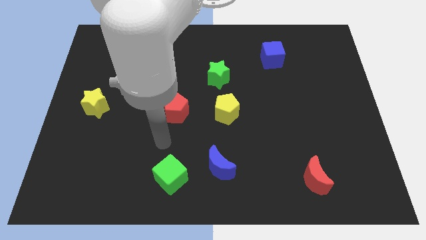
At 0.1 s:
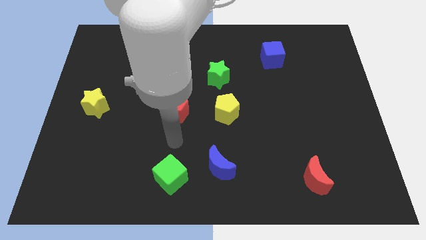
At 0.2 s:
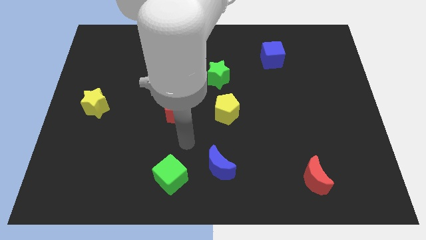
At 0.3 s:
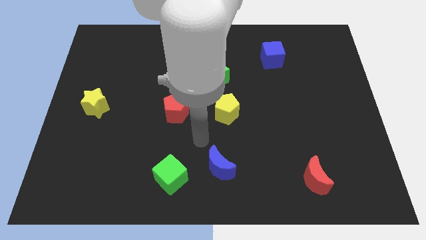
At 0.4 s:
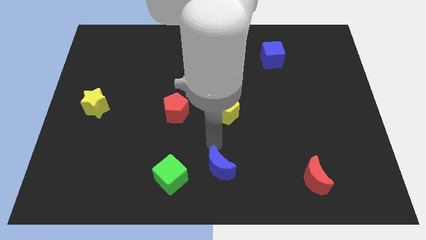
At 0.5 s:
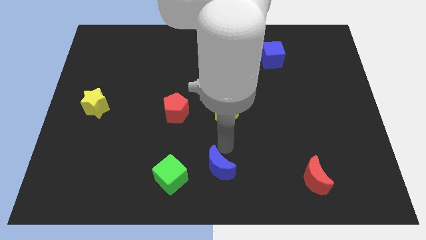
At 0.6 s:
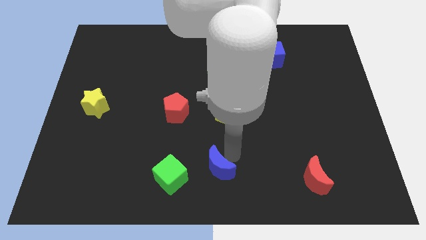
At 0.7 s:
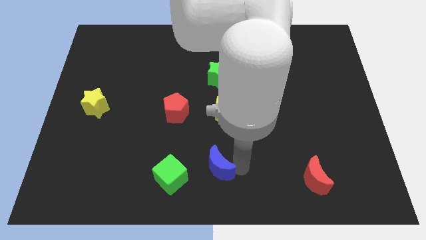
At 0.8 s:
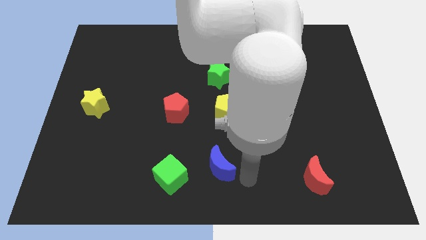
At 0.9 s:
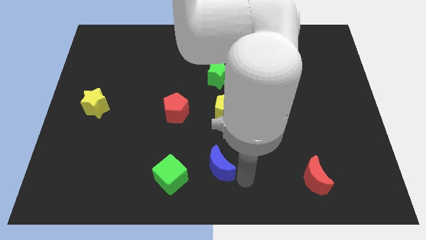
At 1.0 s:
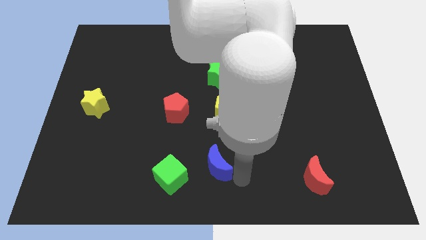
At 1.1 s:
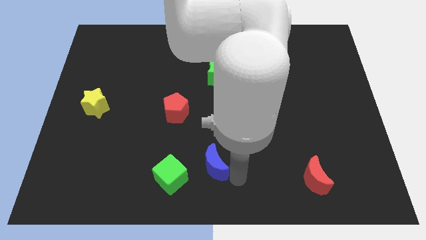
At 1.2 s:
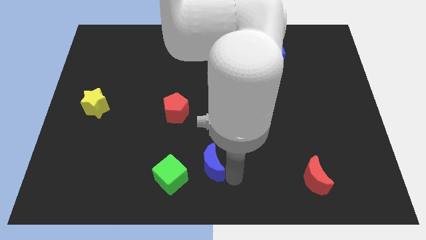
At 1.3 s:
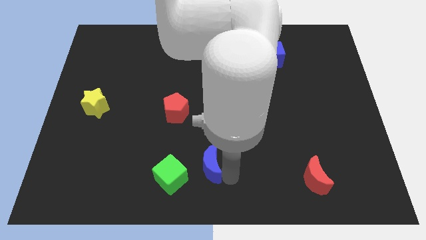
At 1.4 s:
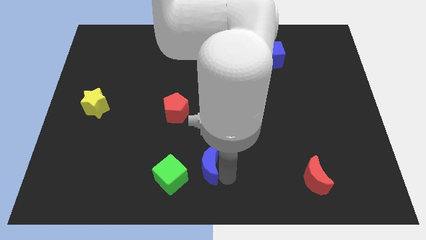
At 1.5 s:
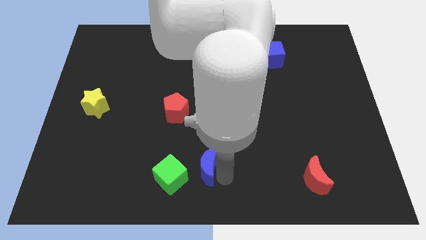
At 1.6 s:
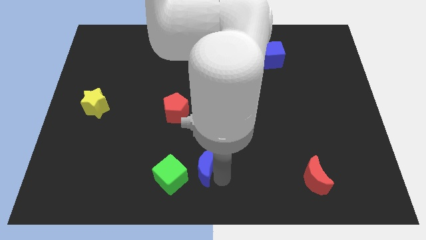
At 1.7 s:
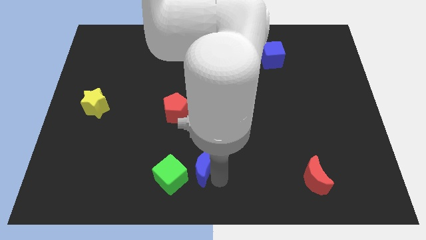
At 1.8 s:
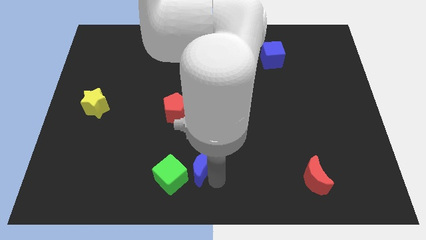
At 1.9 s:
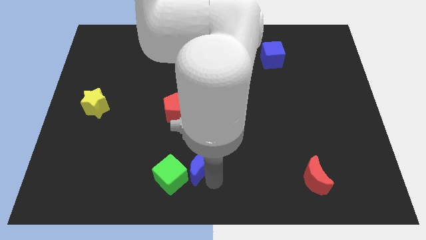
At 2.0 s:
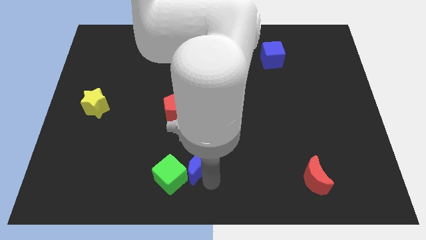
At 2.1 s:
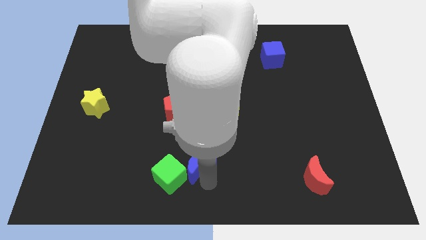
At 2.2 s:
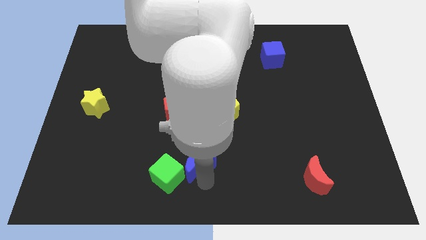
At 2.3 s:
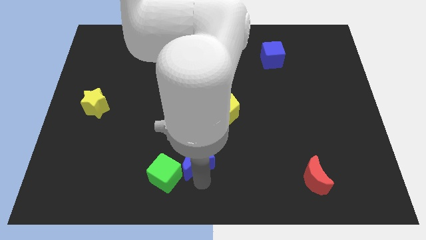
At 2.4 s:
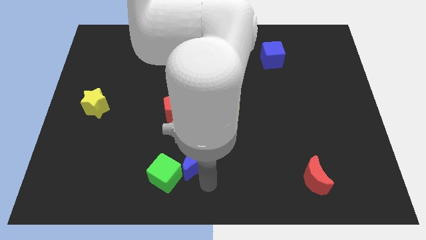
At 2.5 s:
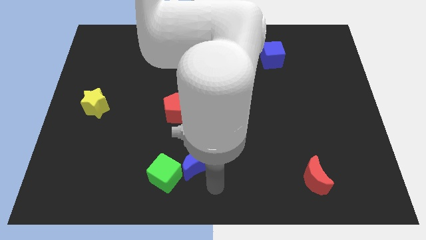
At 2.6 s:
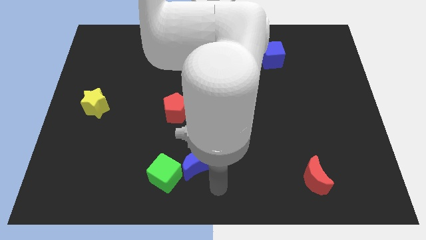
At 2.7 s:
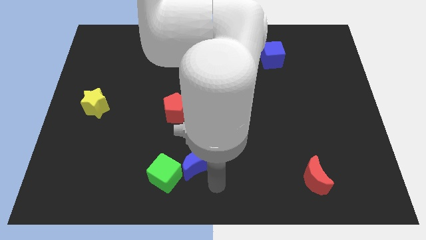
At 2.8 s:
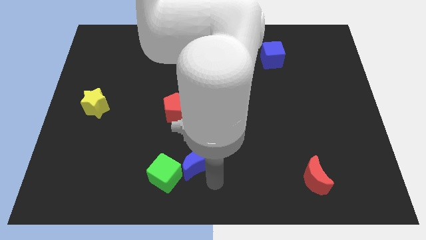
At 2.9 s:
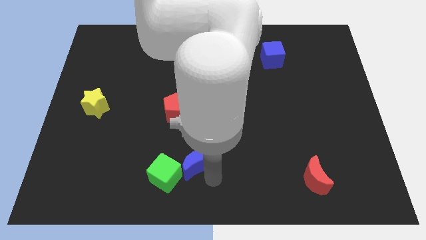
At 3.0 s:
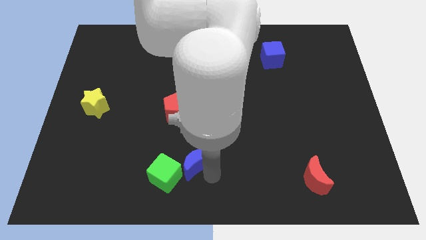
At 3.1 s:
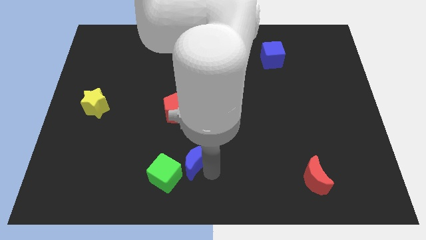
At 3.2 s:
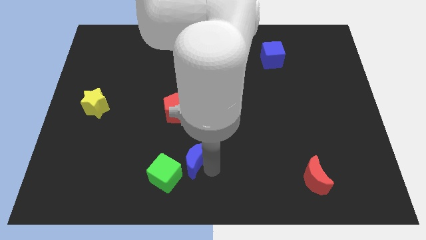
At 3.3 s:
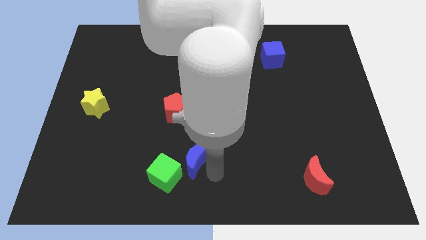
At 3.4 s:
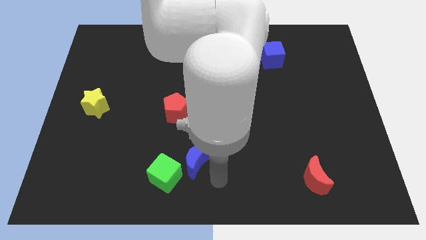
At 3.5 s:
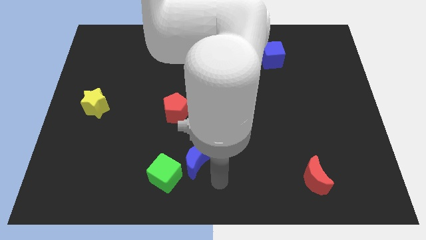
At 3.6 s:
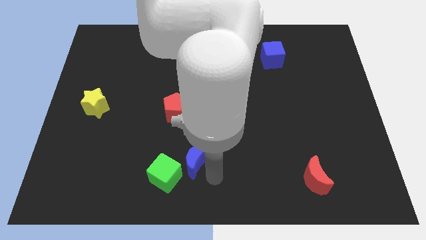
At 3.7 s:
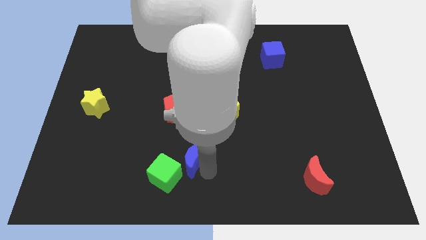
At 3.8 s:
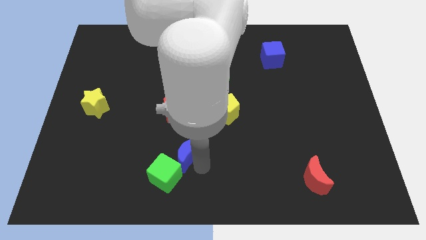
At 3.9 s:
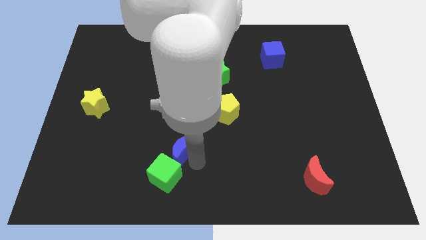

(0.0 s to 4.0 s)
move the blue moon a little diagonally up and to the left

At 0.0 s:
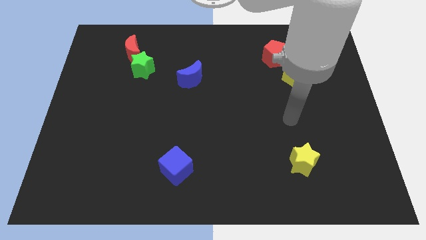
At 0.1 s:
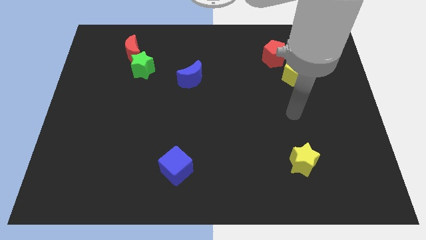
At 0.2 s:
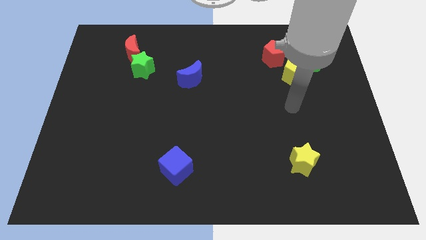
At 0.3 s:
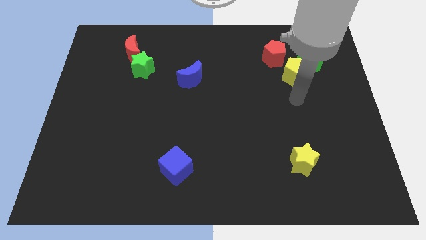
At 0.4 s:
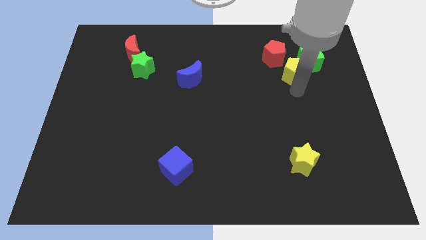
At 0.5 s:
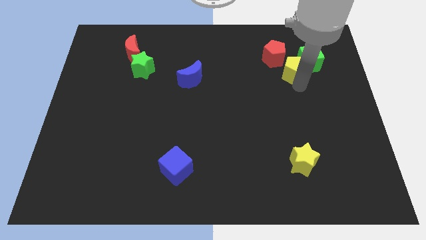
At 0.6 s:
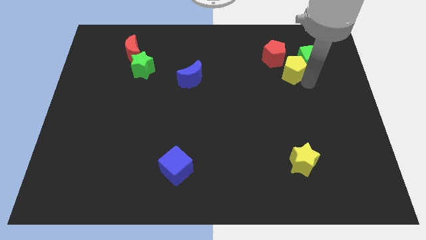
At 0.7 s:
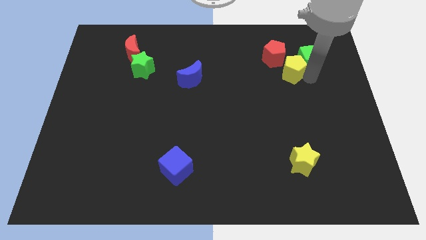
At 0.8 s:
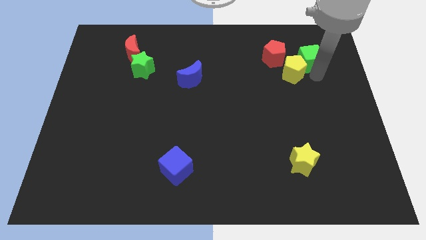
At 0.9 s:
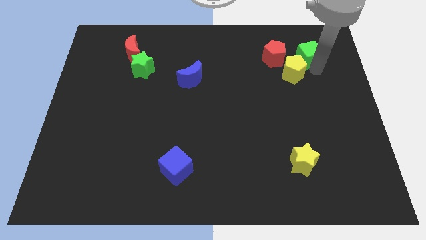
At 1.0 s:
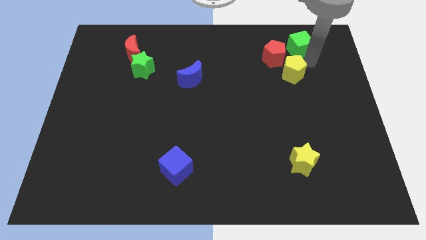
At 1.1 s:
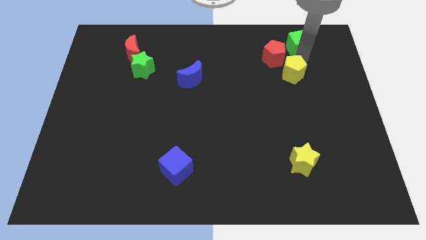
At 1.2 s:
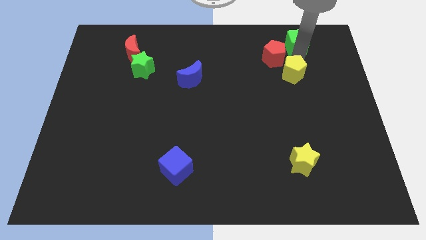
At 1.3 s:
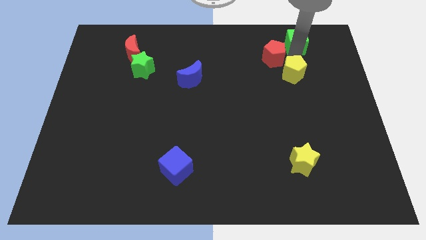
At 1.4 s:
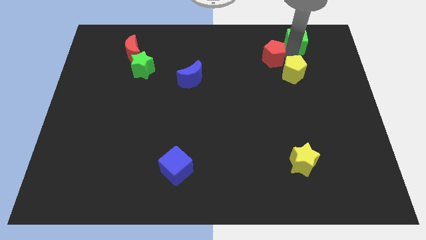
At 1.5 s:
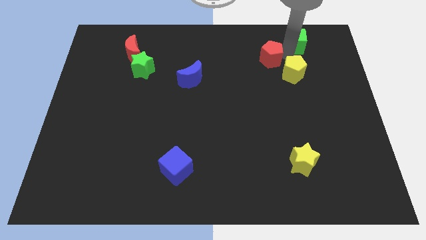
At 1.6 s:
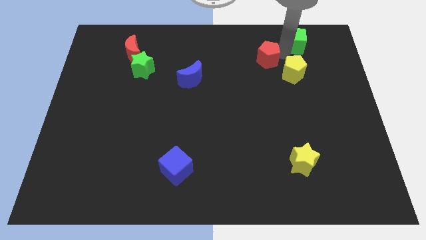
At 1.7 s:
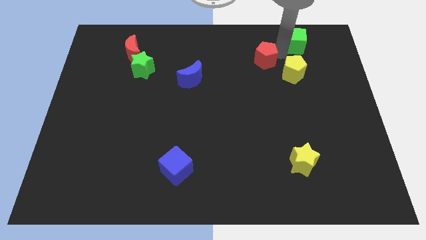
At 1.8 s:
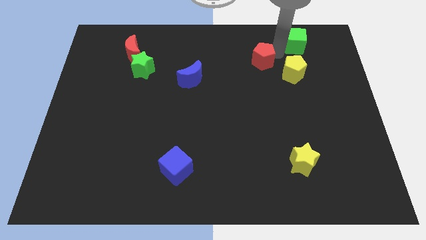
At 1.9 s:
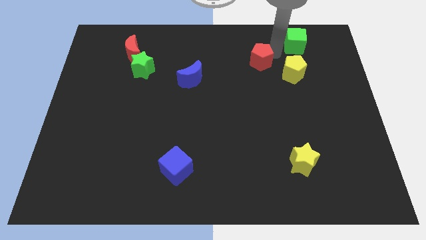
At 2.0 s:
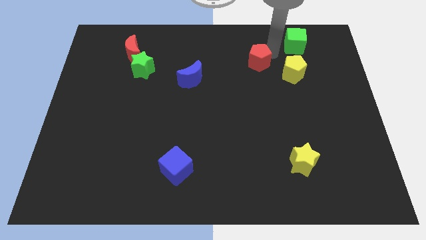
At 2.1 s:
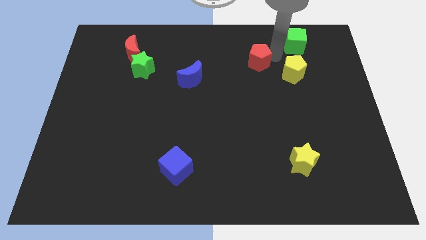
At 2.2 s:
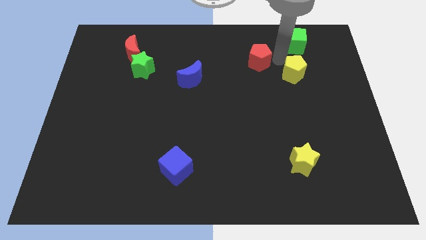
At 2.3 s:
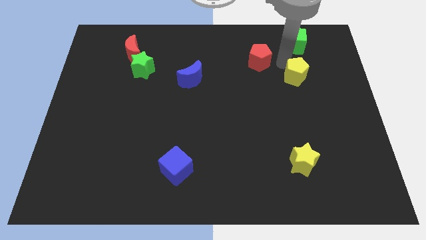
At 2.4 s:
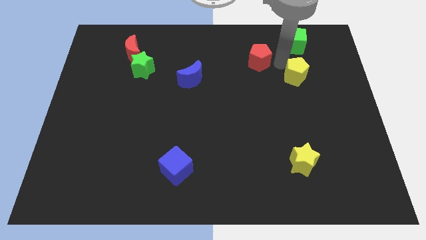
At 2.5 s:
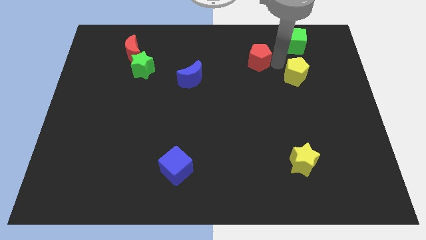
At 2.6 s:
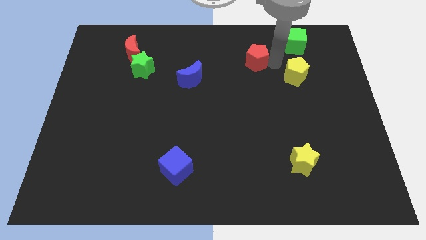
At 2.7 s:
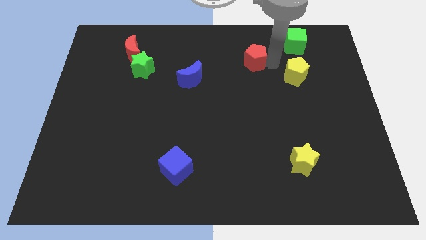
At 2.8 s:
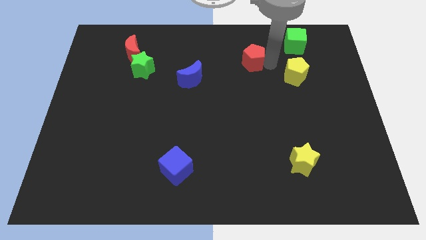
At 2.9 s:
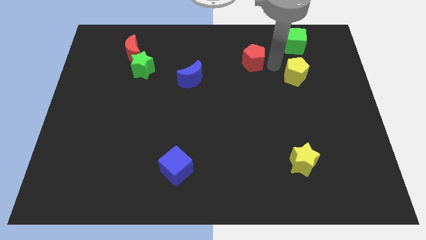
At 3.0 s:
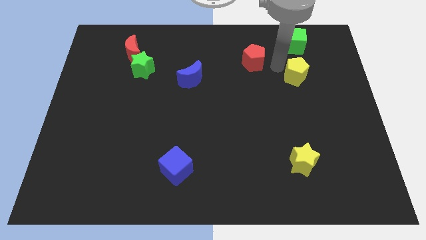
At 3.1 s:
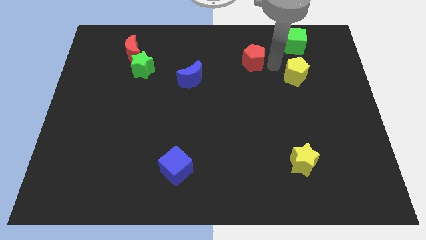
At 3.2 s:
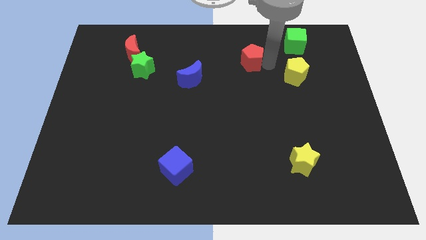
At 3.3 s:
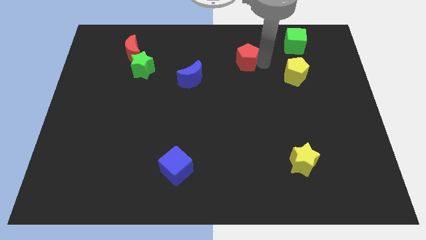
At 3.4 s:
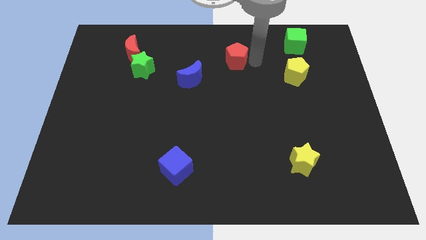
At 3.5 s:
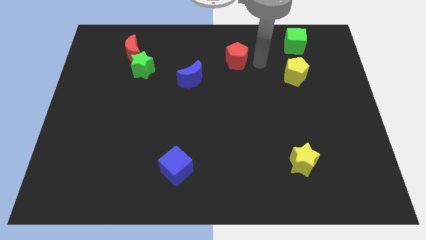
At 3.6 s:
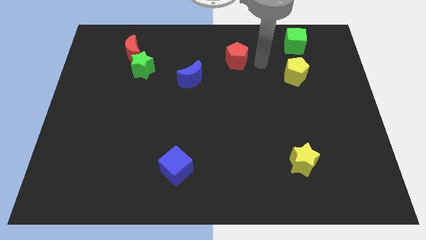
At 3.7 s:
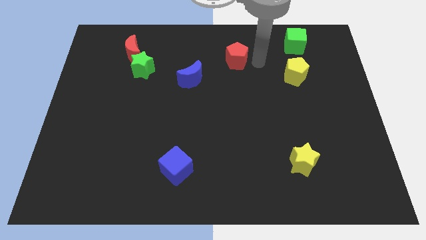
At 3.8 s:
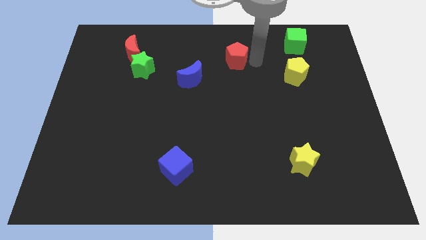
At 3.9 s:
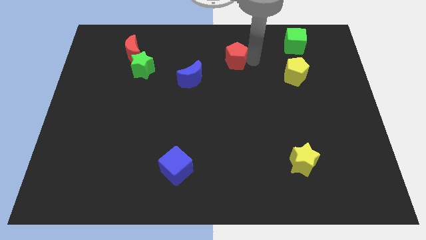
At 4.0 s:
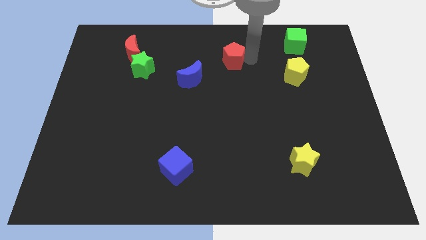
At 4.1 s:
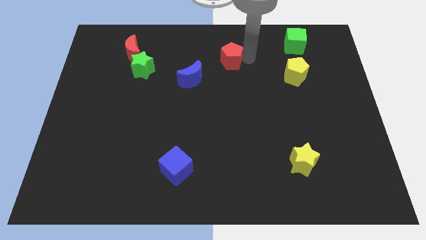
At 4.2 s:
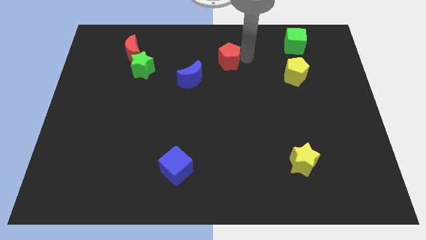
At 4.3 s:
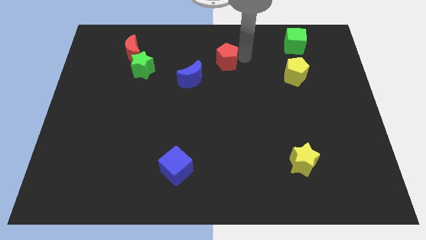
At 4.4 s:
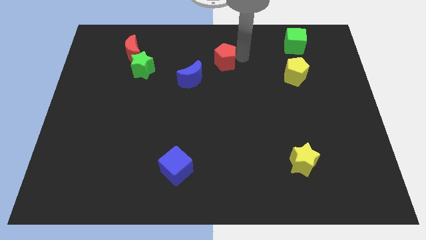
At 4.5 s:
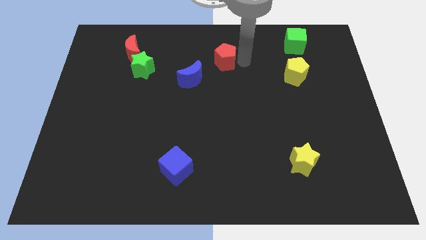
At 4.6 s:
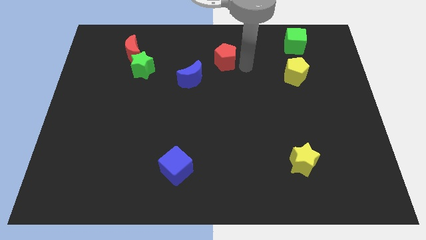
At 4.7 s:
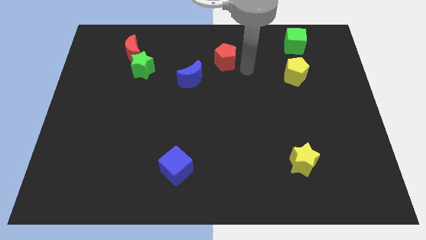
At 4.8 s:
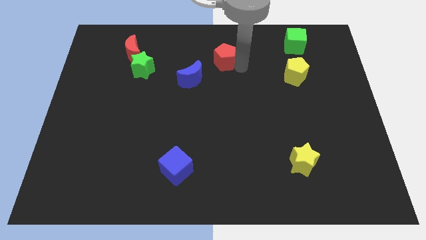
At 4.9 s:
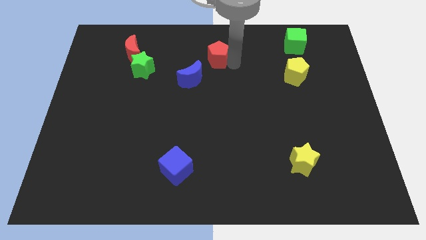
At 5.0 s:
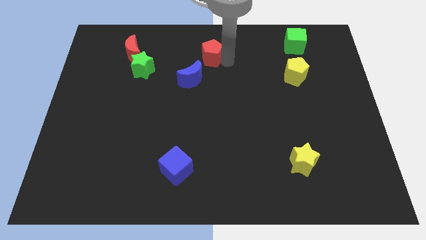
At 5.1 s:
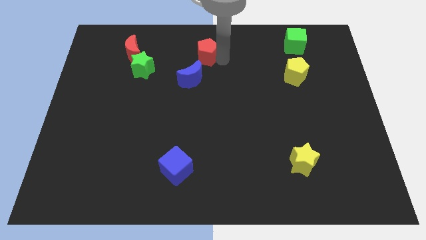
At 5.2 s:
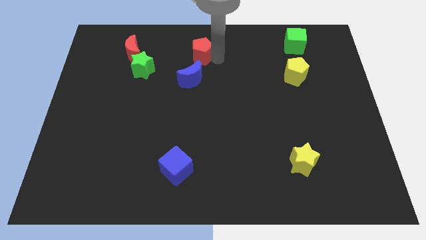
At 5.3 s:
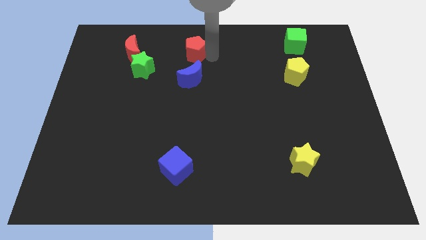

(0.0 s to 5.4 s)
slide the red pentagon to the left
